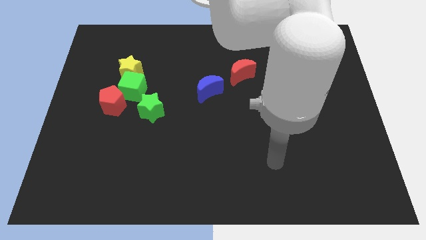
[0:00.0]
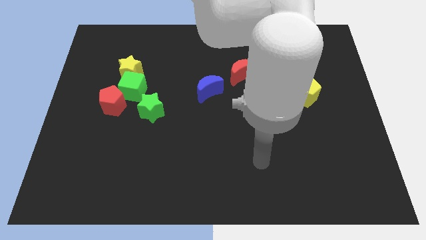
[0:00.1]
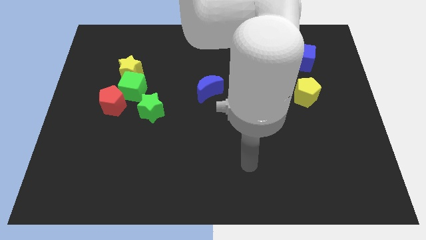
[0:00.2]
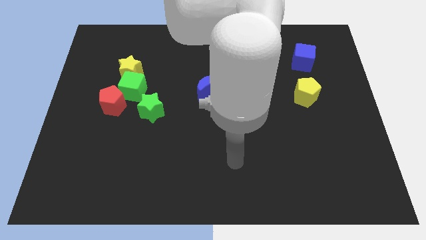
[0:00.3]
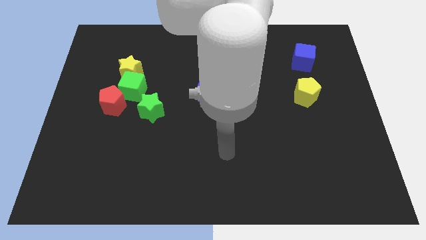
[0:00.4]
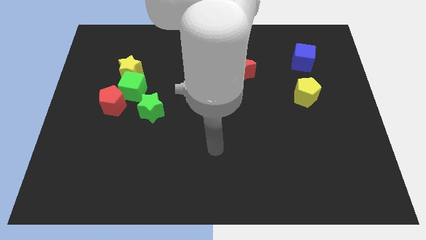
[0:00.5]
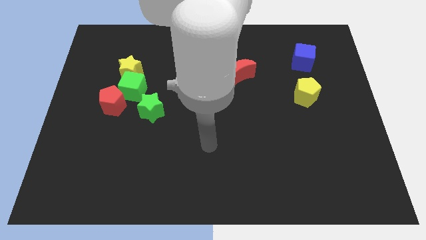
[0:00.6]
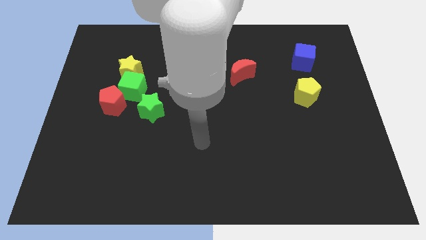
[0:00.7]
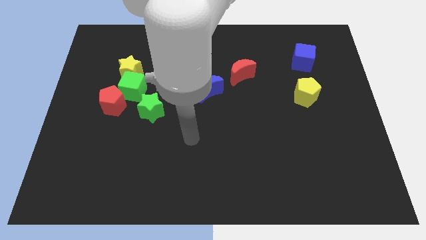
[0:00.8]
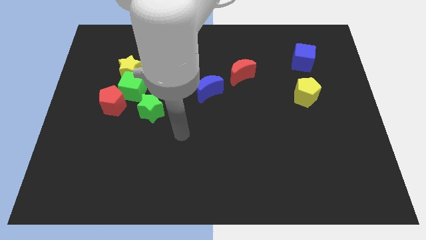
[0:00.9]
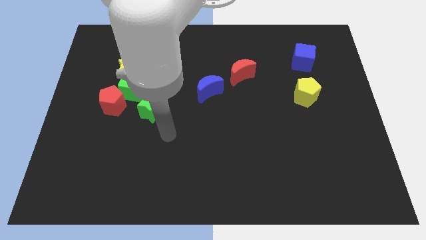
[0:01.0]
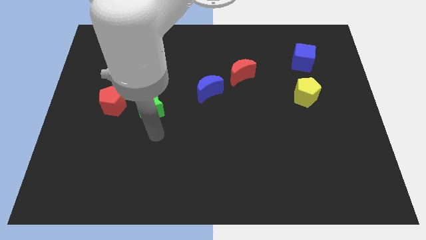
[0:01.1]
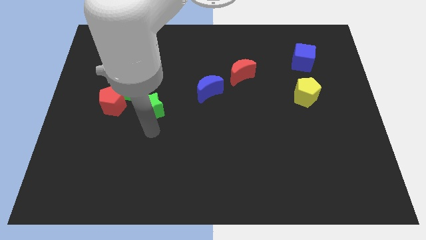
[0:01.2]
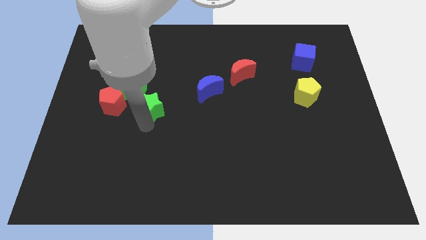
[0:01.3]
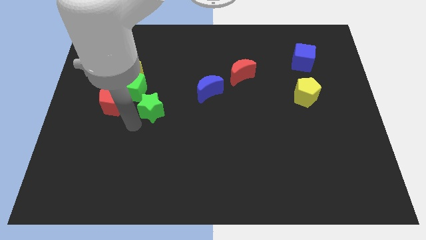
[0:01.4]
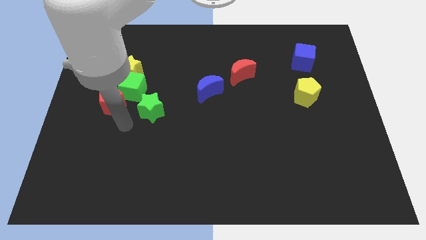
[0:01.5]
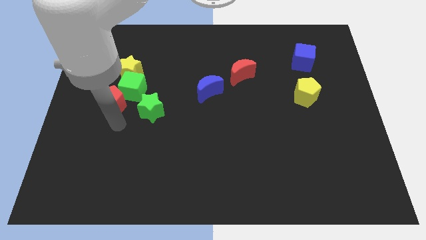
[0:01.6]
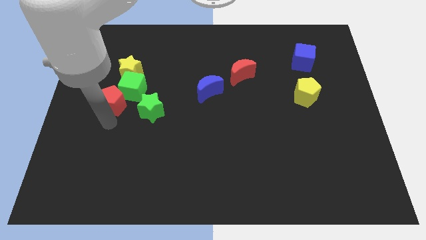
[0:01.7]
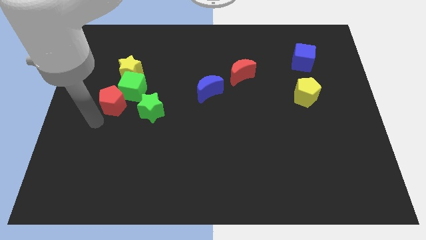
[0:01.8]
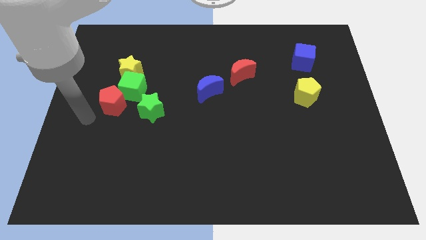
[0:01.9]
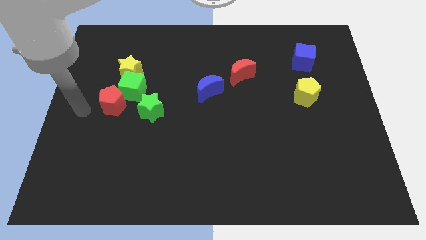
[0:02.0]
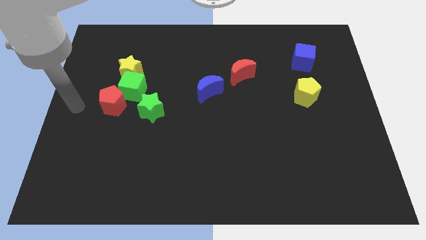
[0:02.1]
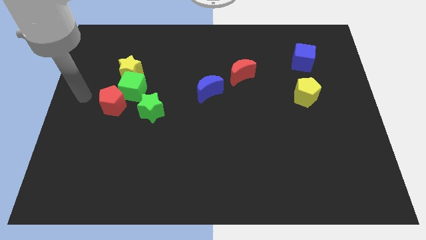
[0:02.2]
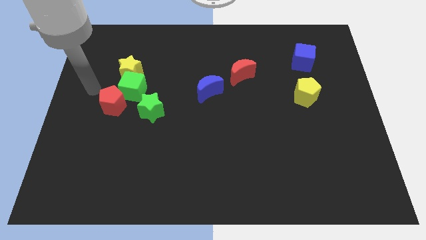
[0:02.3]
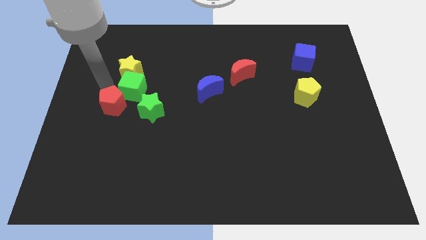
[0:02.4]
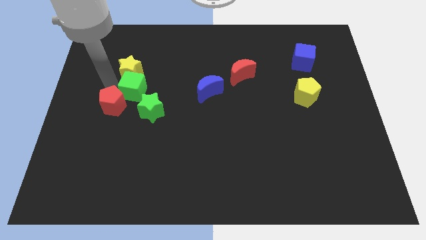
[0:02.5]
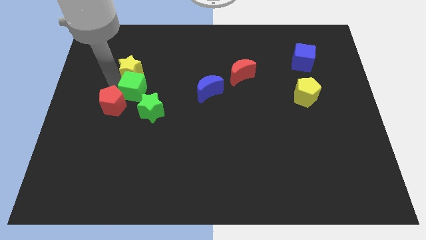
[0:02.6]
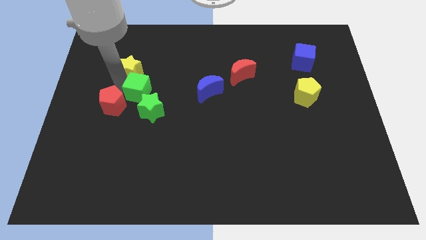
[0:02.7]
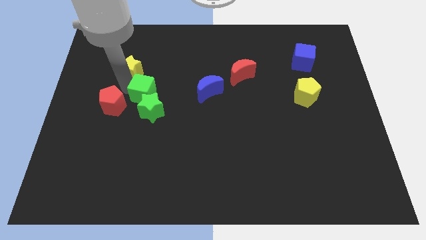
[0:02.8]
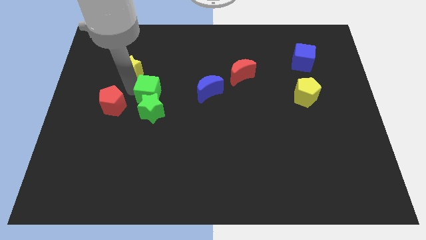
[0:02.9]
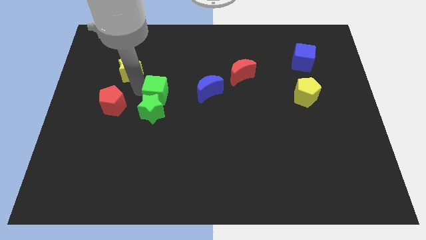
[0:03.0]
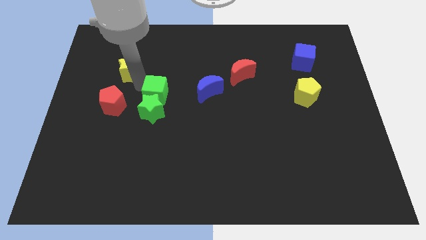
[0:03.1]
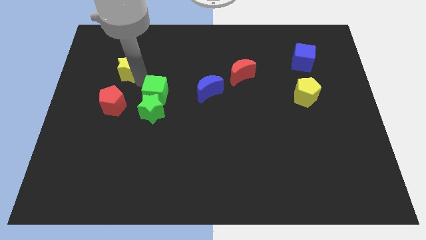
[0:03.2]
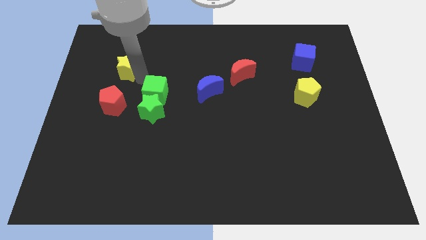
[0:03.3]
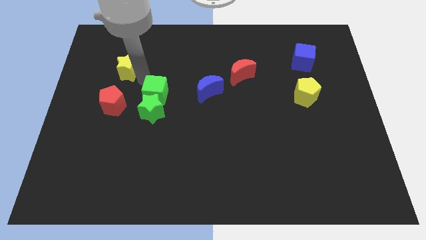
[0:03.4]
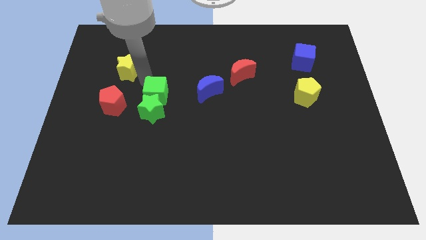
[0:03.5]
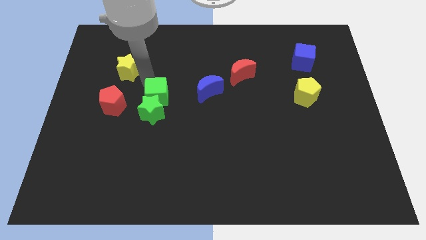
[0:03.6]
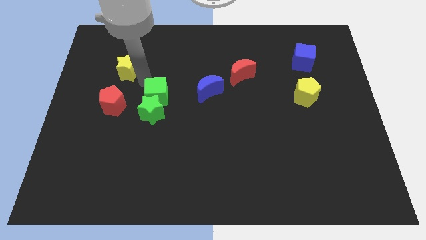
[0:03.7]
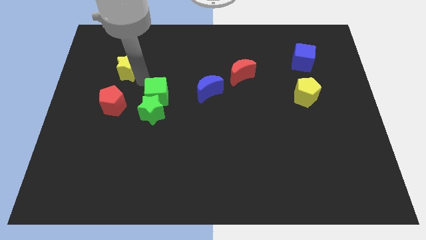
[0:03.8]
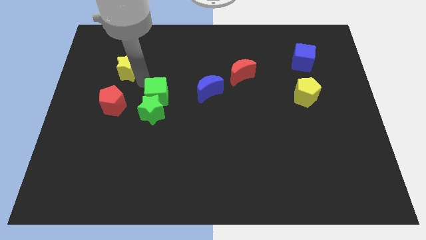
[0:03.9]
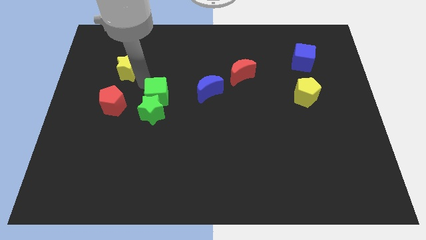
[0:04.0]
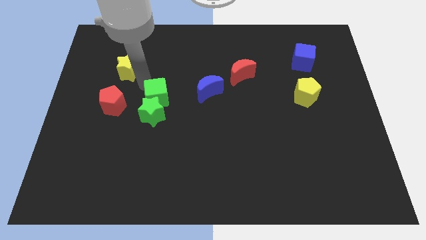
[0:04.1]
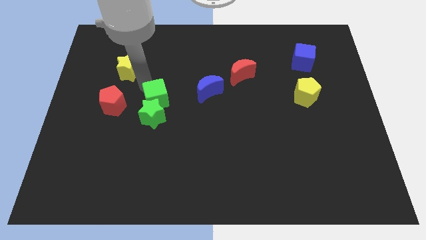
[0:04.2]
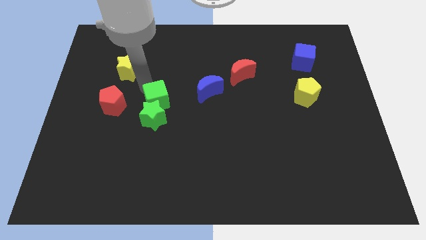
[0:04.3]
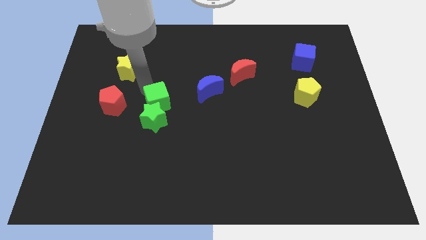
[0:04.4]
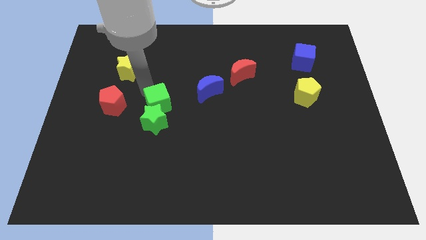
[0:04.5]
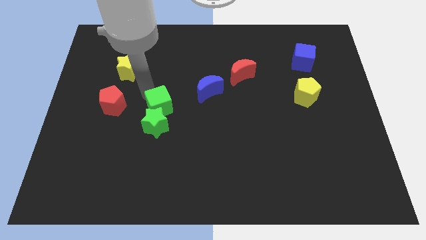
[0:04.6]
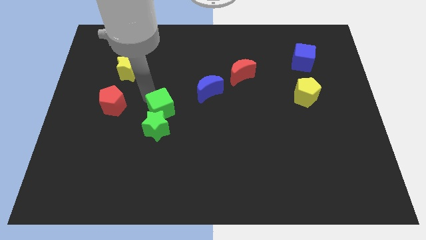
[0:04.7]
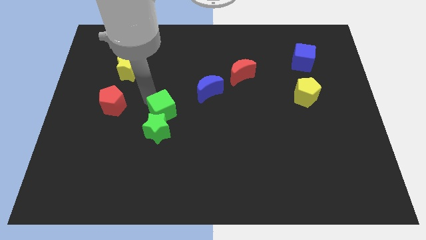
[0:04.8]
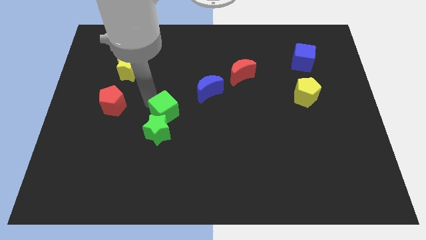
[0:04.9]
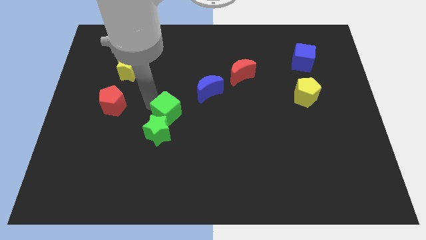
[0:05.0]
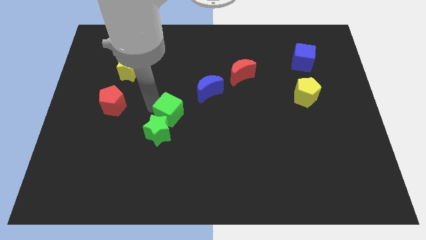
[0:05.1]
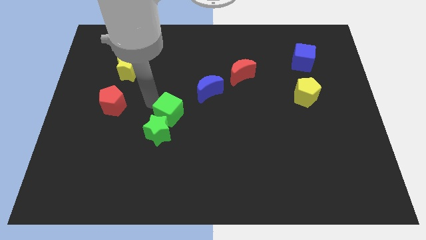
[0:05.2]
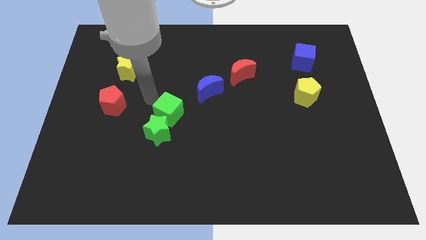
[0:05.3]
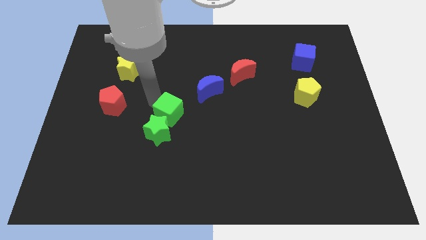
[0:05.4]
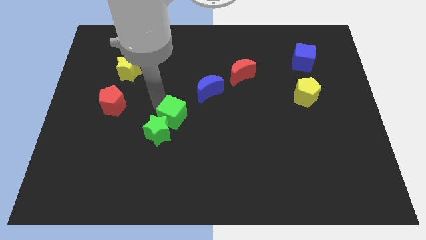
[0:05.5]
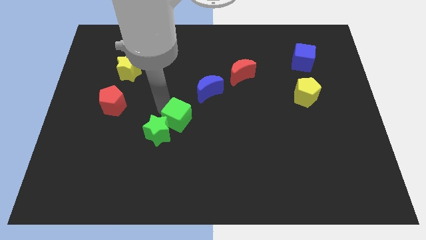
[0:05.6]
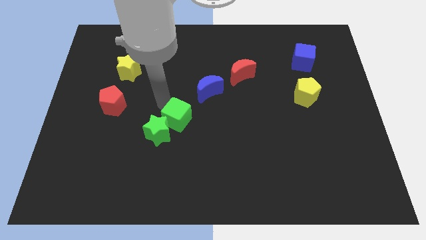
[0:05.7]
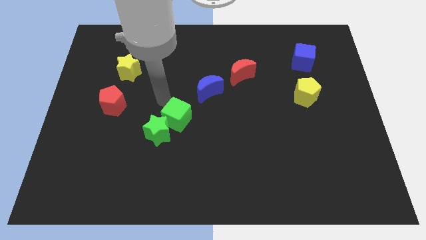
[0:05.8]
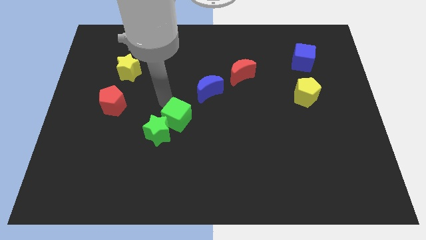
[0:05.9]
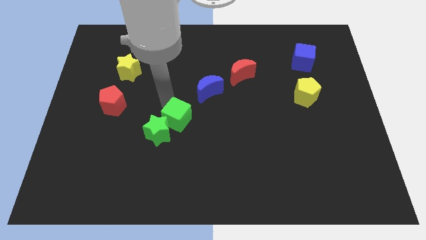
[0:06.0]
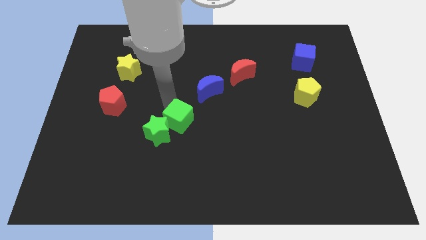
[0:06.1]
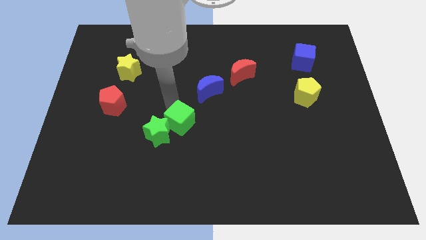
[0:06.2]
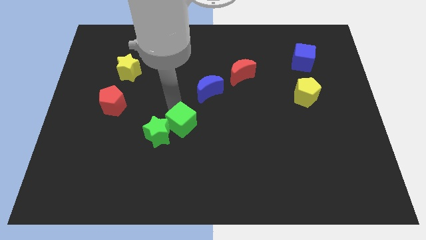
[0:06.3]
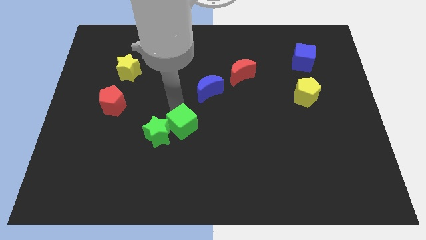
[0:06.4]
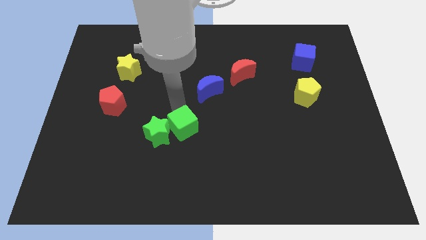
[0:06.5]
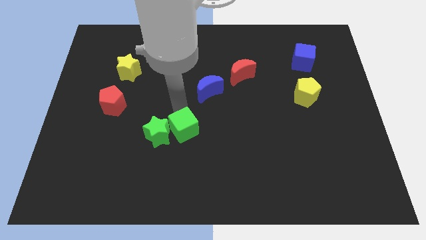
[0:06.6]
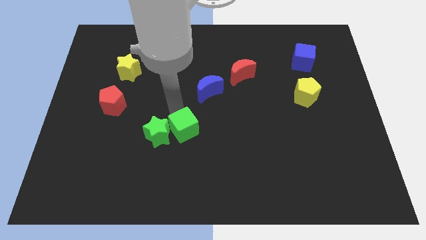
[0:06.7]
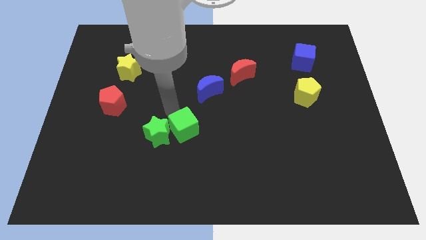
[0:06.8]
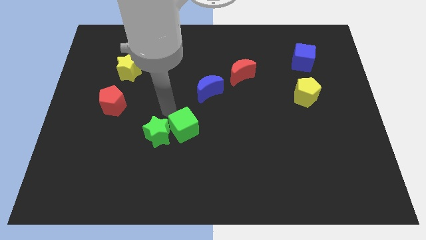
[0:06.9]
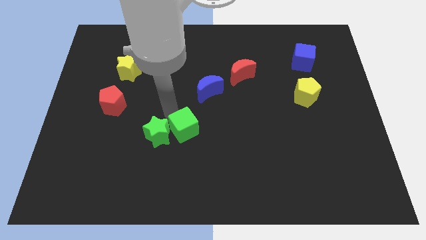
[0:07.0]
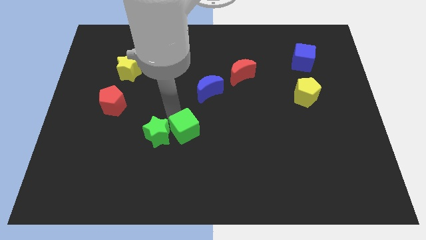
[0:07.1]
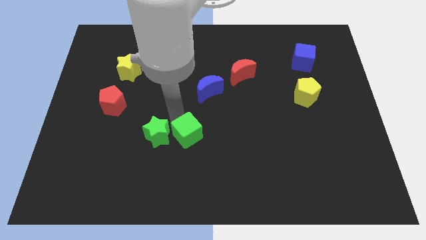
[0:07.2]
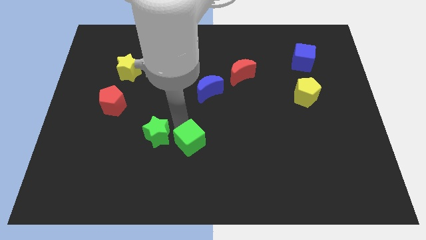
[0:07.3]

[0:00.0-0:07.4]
push the green cube down and to the right

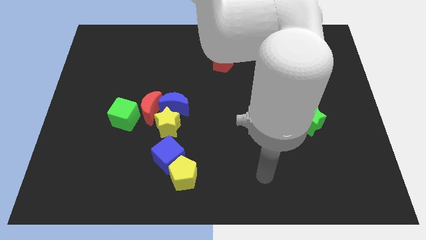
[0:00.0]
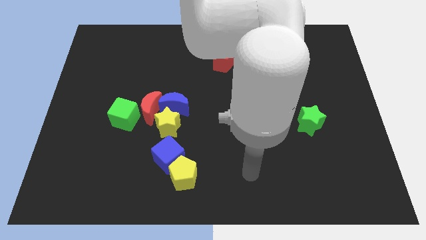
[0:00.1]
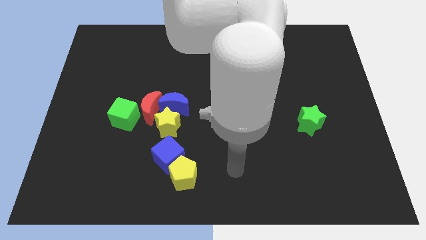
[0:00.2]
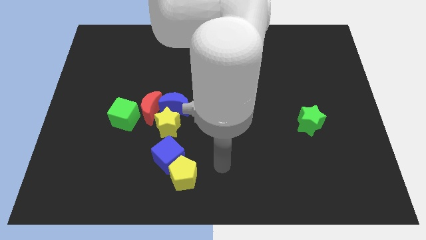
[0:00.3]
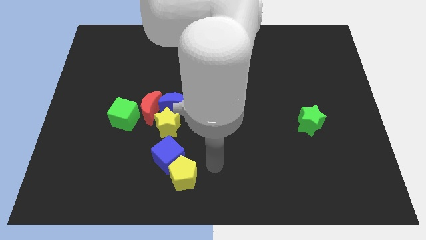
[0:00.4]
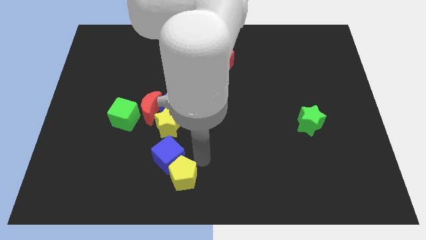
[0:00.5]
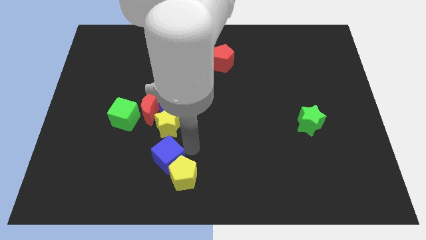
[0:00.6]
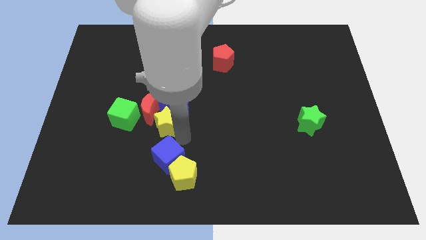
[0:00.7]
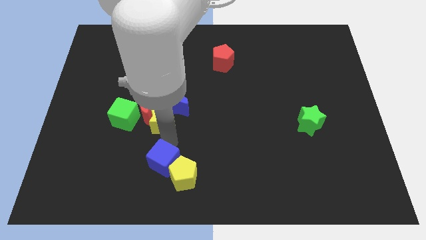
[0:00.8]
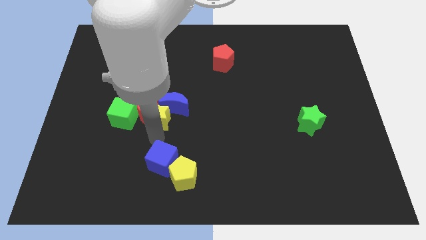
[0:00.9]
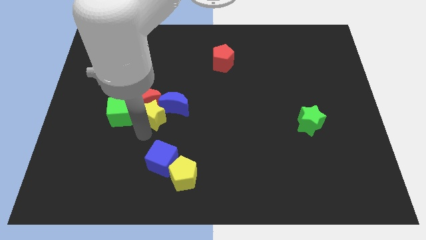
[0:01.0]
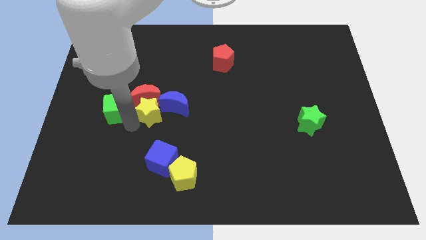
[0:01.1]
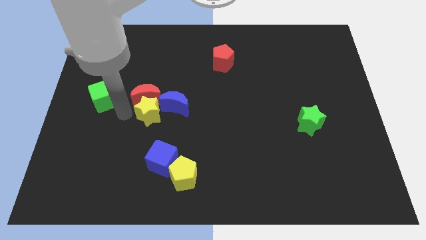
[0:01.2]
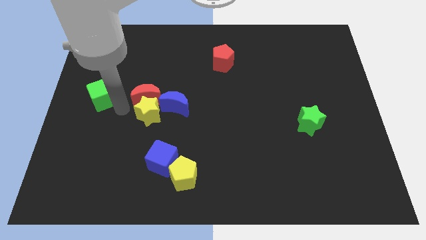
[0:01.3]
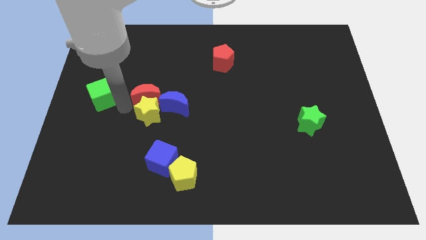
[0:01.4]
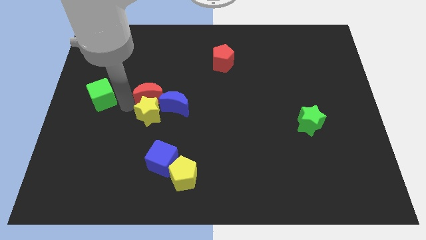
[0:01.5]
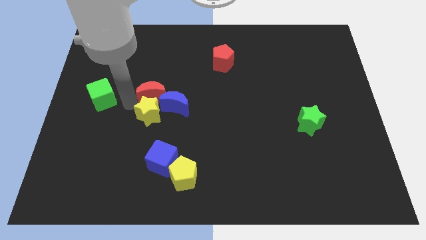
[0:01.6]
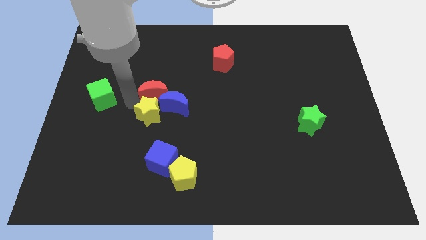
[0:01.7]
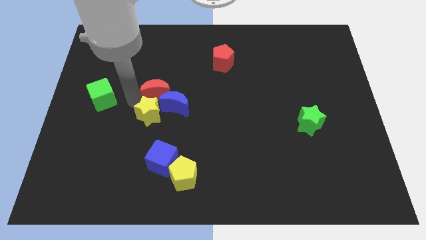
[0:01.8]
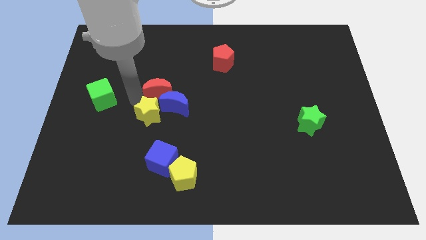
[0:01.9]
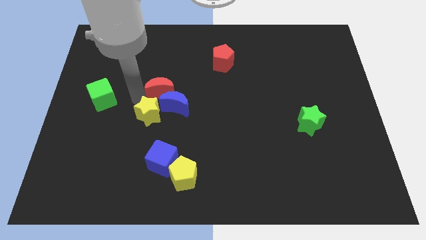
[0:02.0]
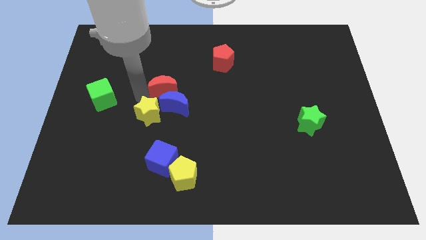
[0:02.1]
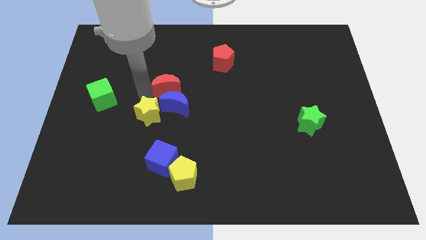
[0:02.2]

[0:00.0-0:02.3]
slightly move the red moon diagonally upwards and right
